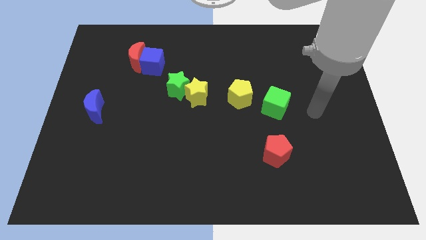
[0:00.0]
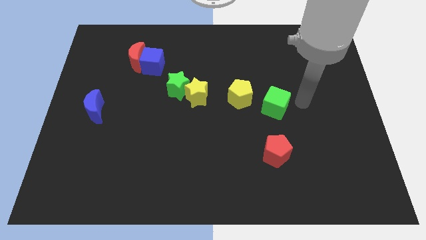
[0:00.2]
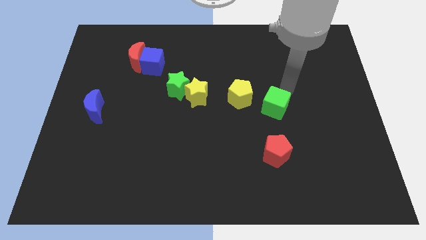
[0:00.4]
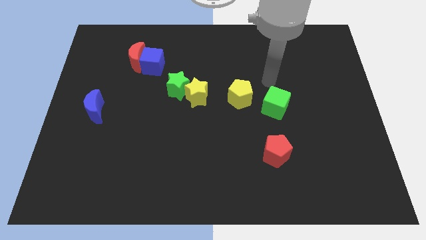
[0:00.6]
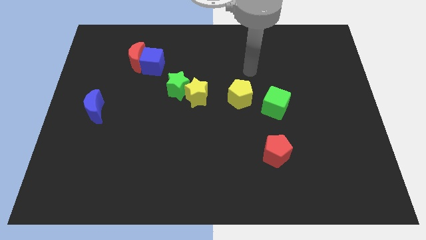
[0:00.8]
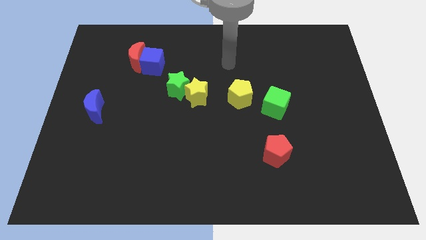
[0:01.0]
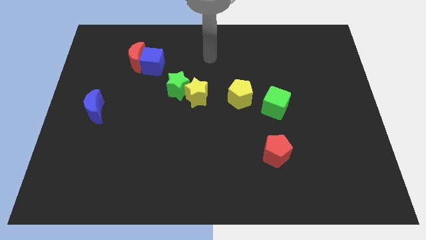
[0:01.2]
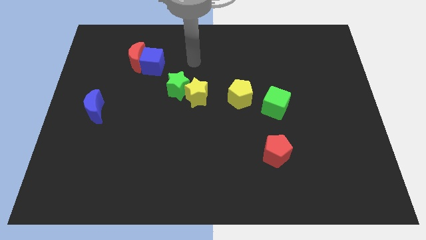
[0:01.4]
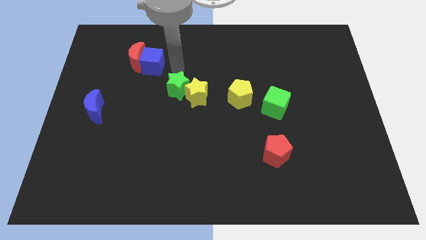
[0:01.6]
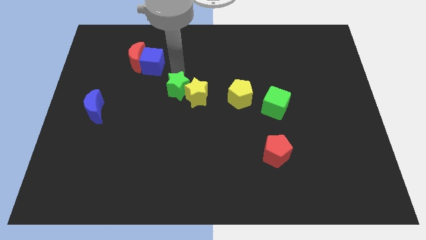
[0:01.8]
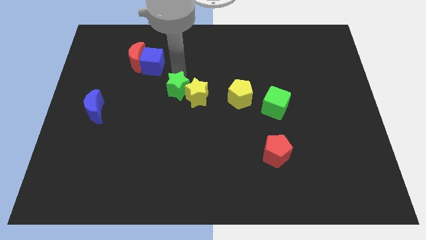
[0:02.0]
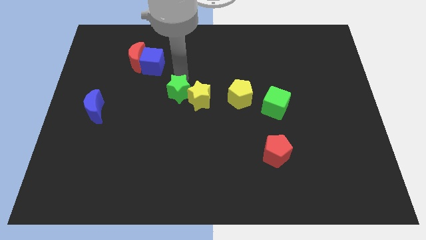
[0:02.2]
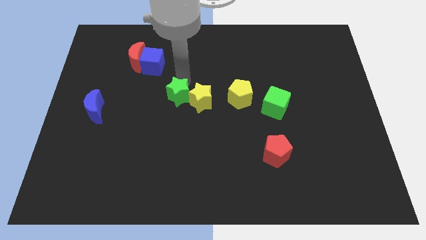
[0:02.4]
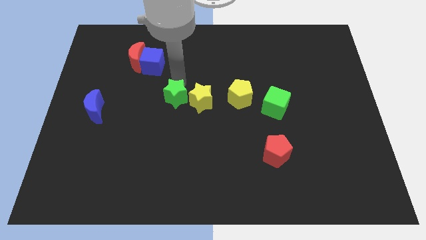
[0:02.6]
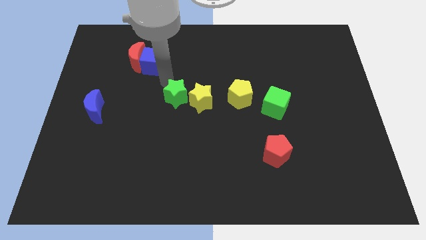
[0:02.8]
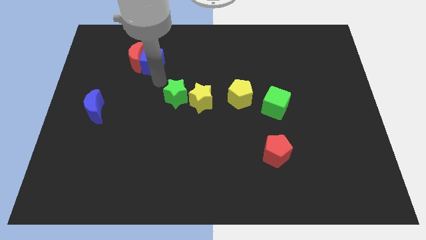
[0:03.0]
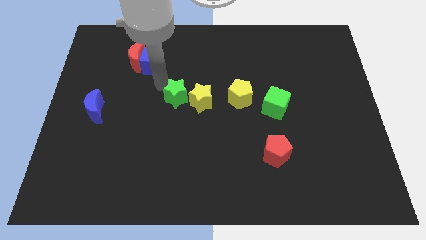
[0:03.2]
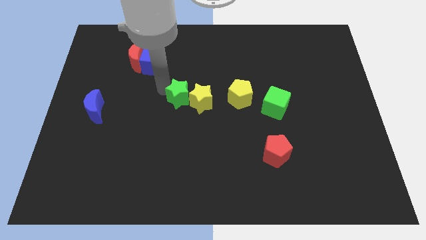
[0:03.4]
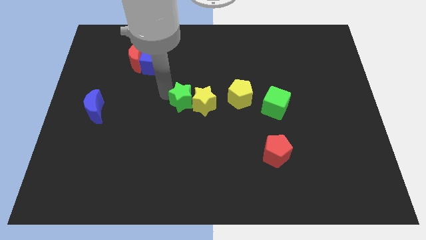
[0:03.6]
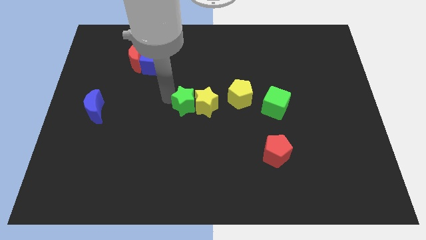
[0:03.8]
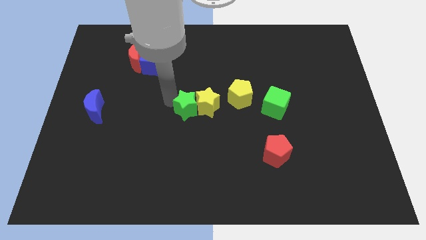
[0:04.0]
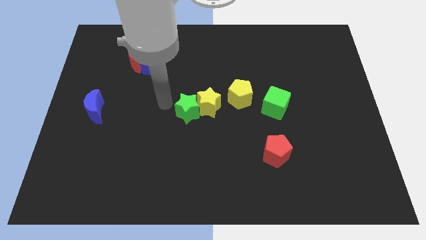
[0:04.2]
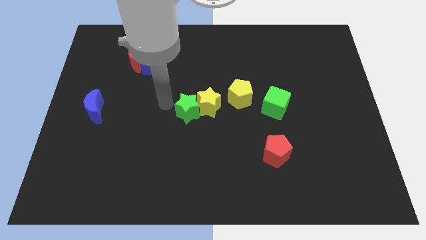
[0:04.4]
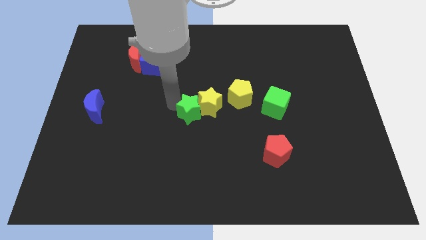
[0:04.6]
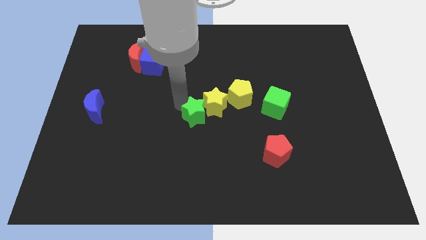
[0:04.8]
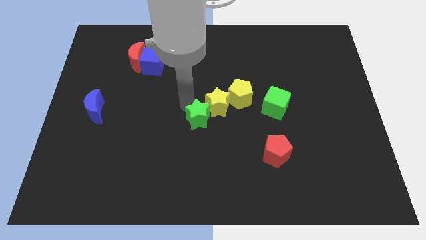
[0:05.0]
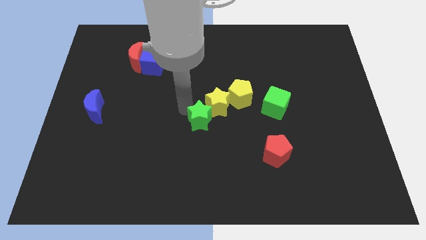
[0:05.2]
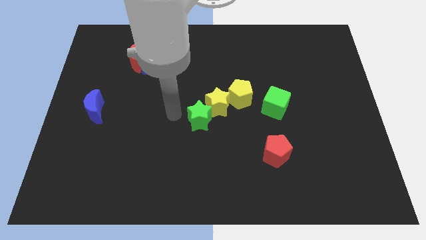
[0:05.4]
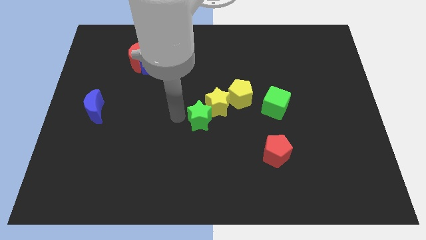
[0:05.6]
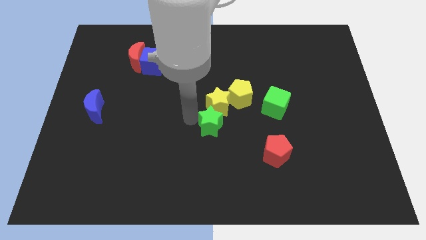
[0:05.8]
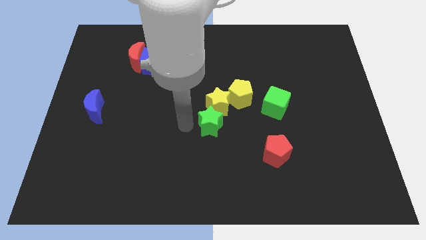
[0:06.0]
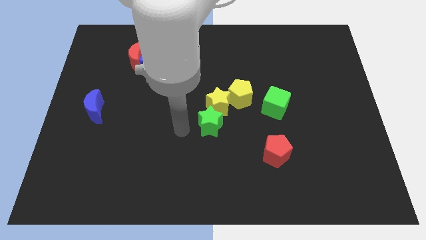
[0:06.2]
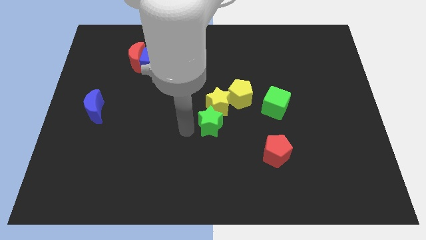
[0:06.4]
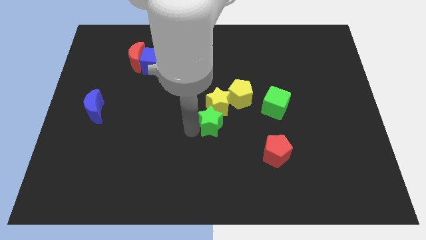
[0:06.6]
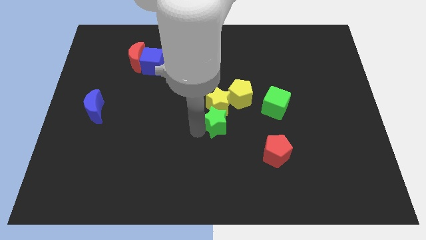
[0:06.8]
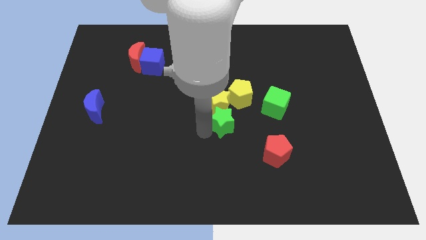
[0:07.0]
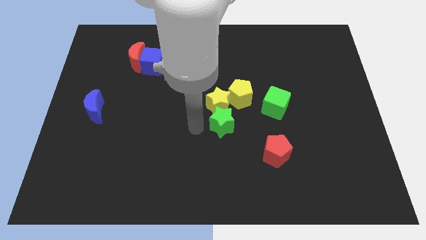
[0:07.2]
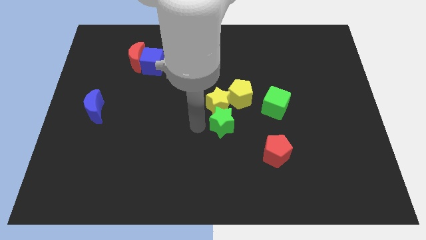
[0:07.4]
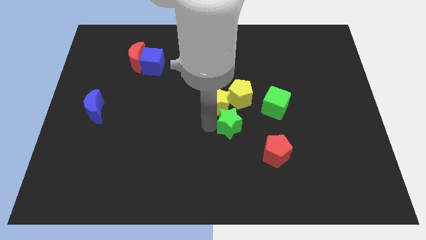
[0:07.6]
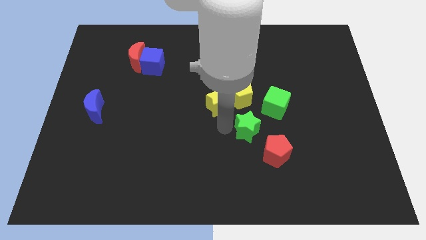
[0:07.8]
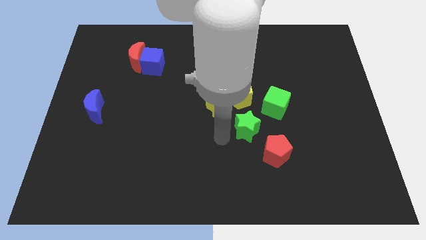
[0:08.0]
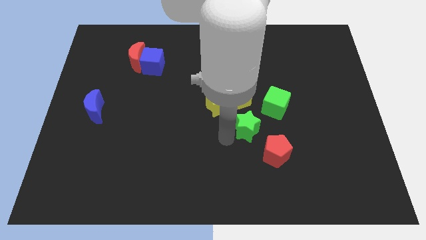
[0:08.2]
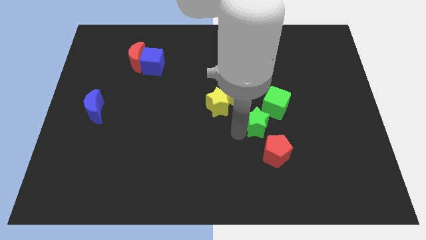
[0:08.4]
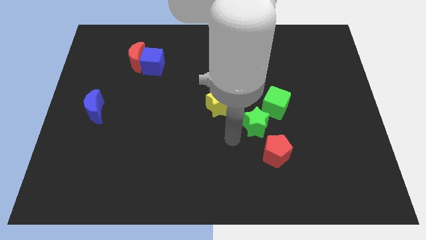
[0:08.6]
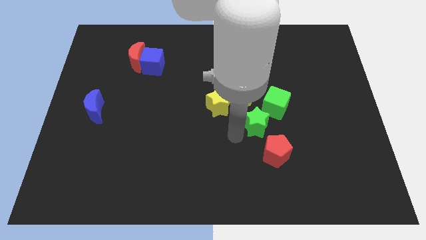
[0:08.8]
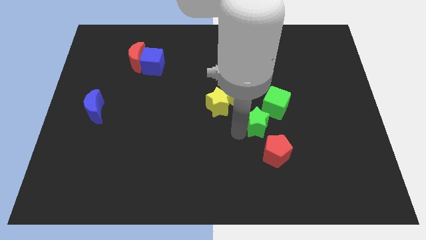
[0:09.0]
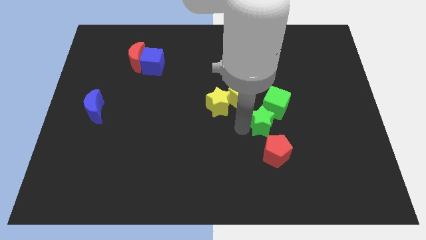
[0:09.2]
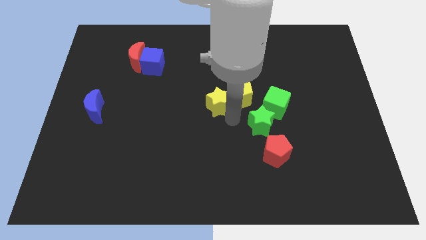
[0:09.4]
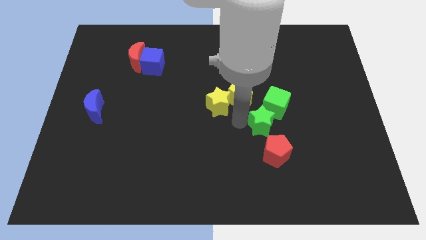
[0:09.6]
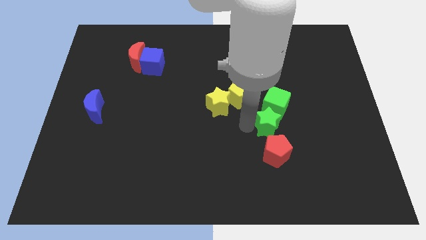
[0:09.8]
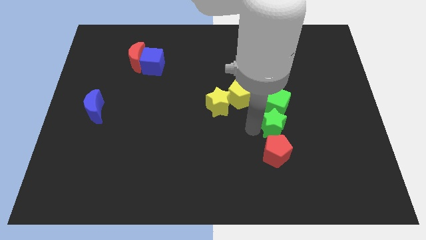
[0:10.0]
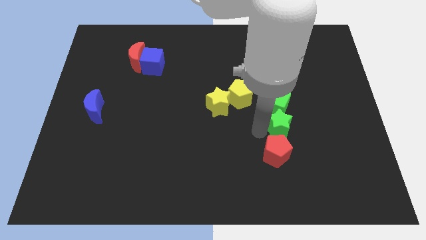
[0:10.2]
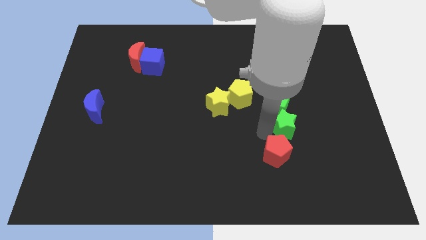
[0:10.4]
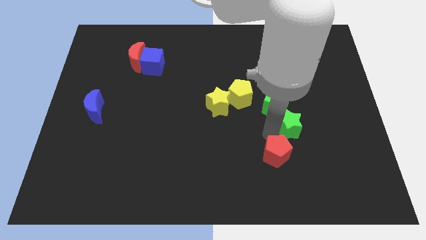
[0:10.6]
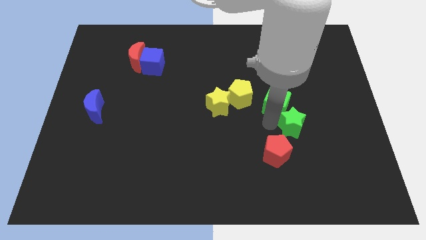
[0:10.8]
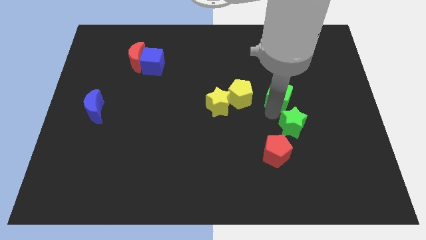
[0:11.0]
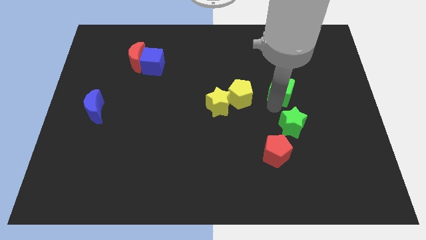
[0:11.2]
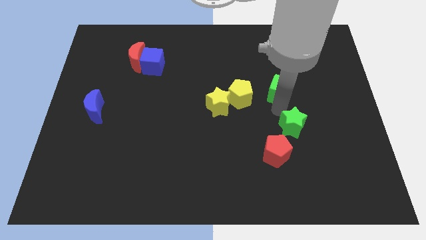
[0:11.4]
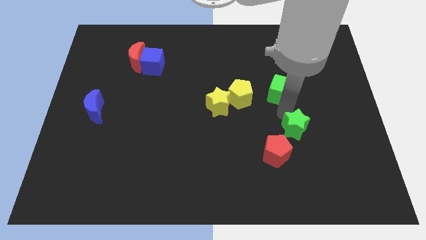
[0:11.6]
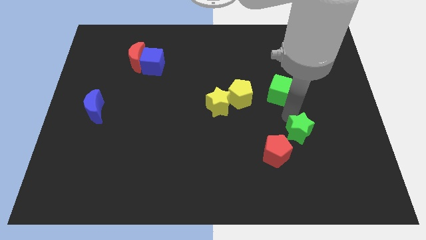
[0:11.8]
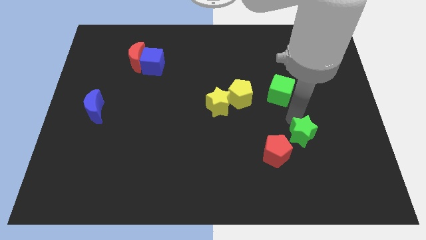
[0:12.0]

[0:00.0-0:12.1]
slide the green star to the right side of the red pentagon

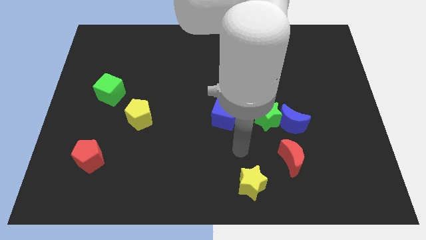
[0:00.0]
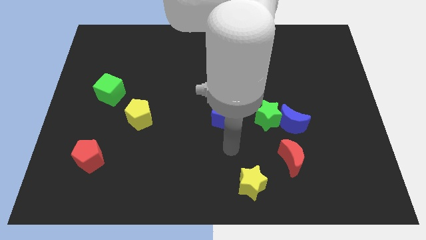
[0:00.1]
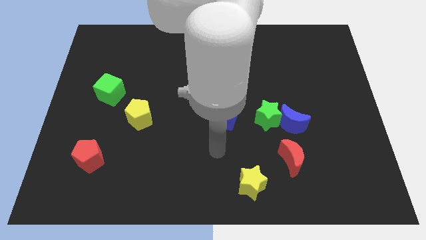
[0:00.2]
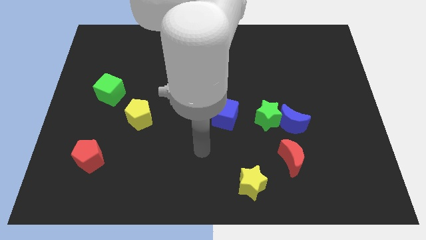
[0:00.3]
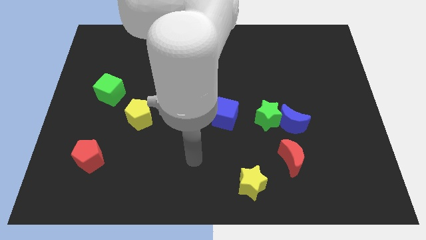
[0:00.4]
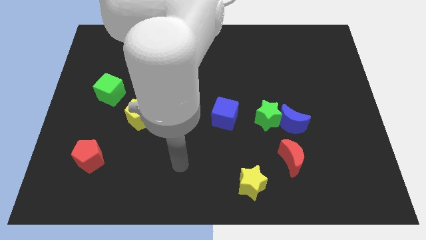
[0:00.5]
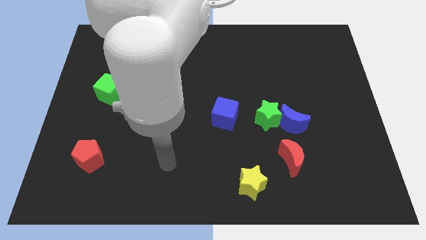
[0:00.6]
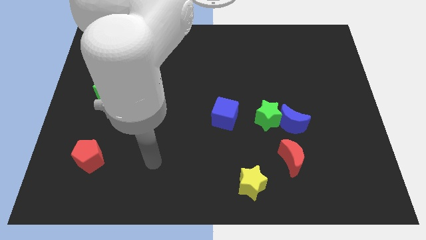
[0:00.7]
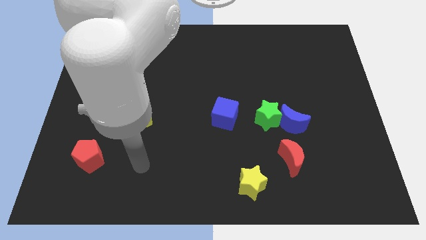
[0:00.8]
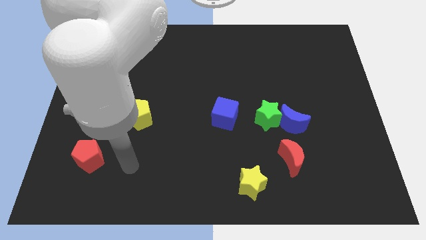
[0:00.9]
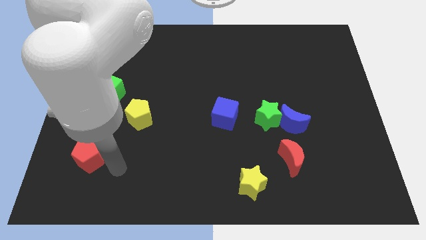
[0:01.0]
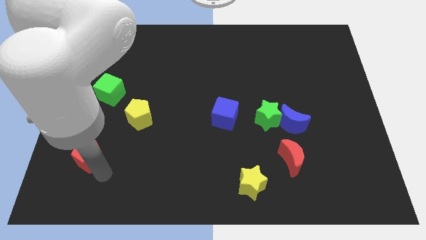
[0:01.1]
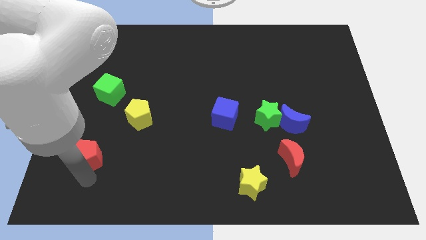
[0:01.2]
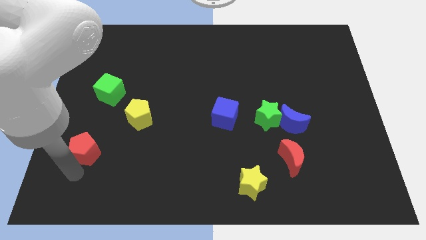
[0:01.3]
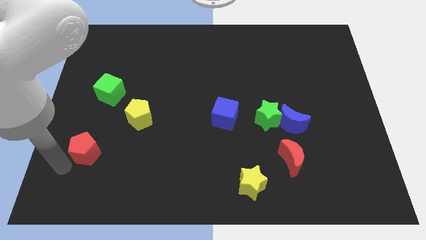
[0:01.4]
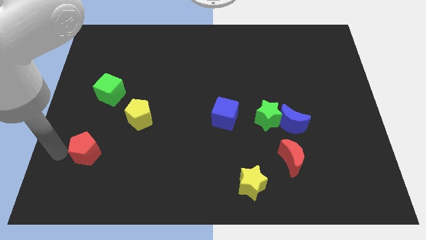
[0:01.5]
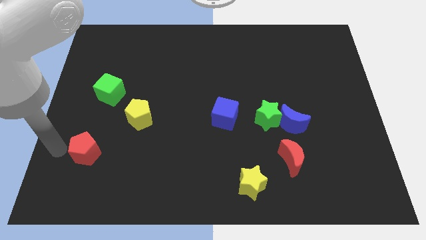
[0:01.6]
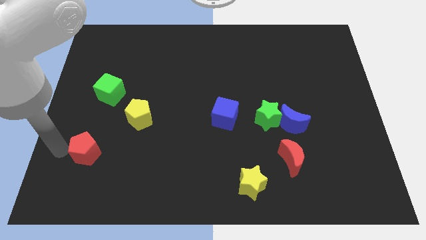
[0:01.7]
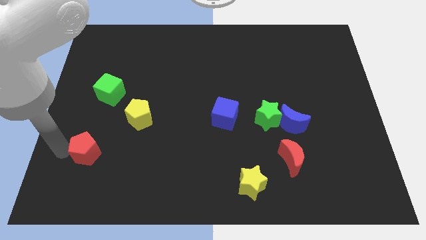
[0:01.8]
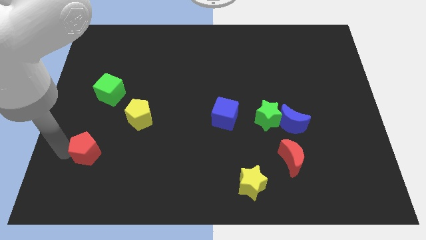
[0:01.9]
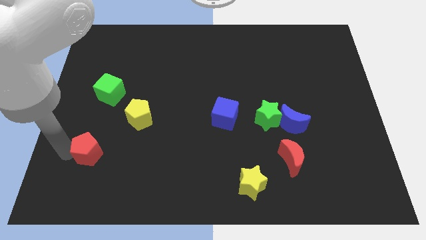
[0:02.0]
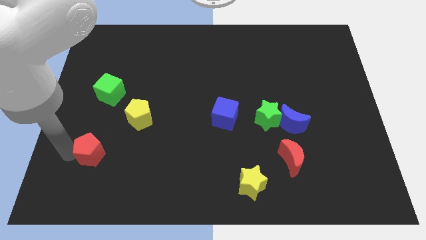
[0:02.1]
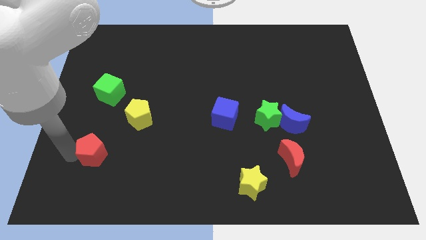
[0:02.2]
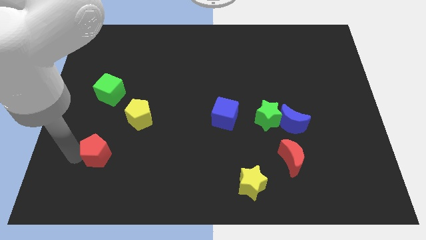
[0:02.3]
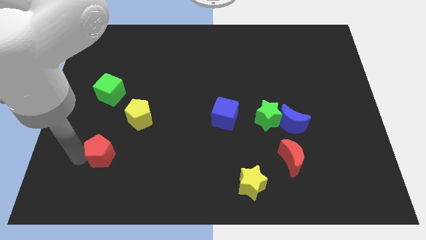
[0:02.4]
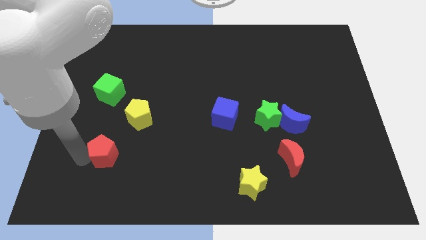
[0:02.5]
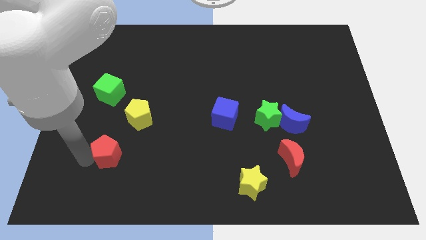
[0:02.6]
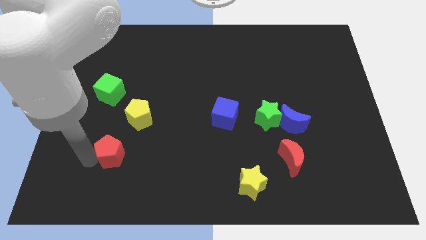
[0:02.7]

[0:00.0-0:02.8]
put the red pentagon to the bottom side of the yellow pentagon
